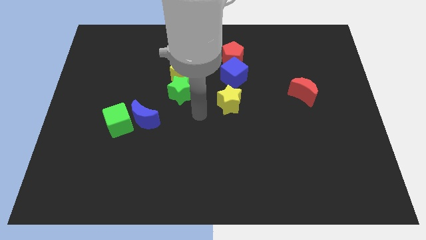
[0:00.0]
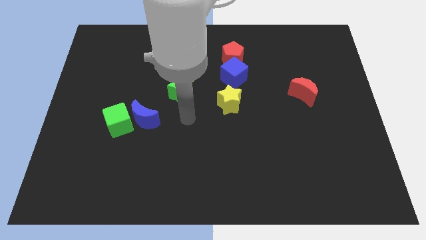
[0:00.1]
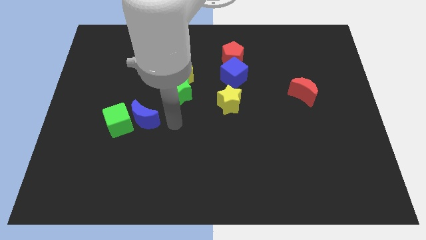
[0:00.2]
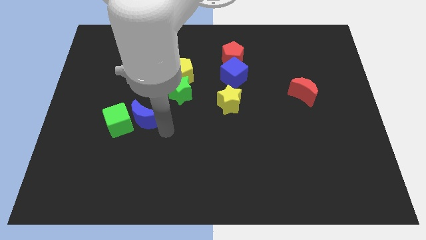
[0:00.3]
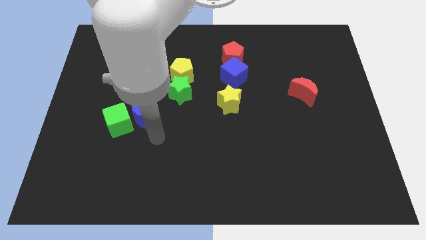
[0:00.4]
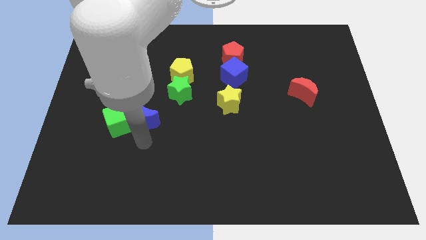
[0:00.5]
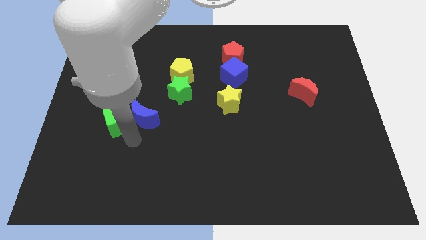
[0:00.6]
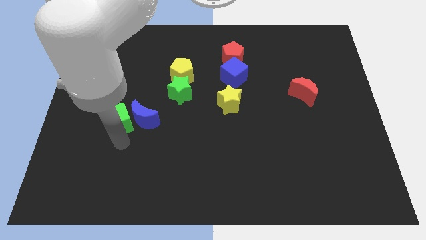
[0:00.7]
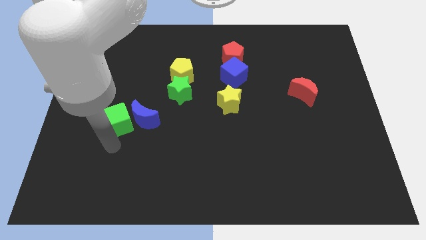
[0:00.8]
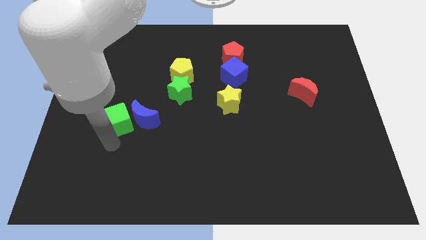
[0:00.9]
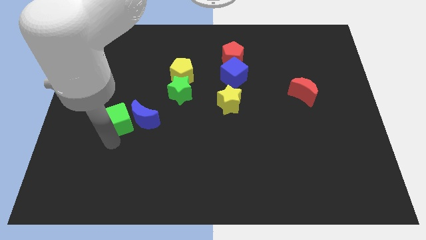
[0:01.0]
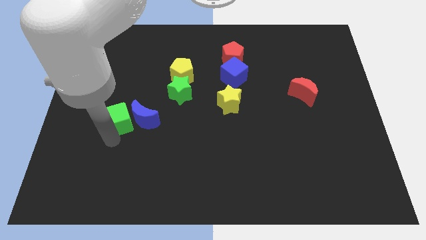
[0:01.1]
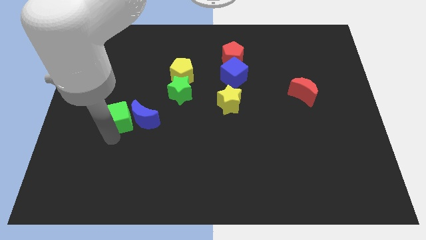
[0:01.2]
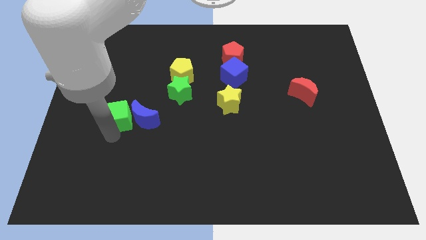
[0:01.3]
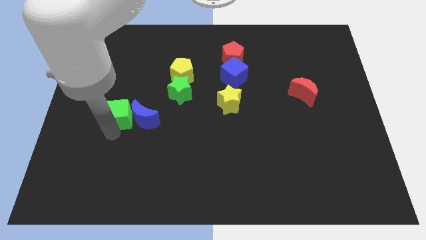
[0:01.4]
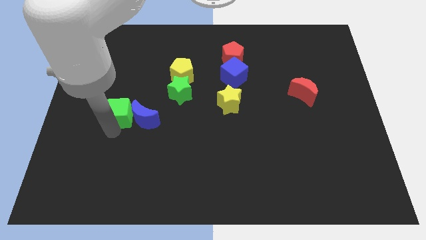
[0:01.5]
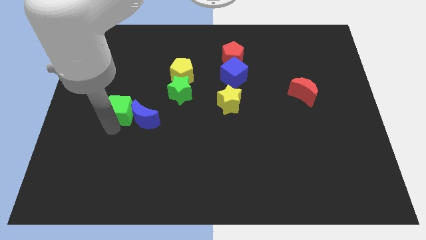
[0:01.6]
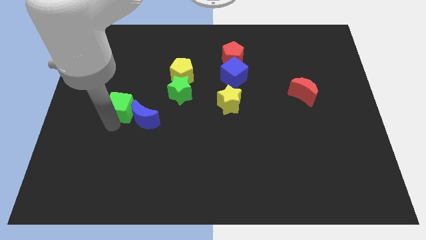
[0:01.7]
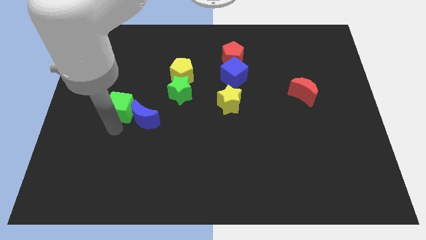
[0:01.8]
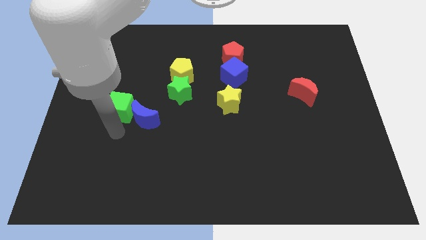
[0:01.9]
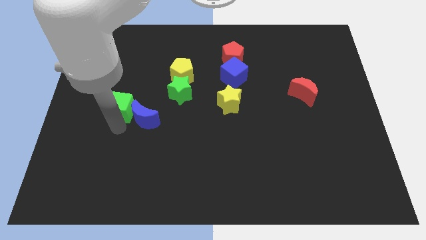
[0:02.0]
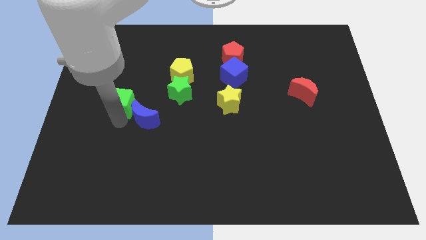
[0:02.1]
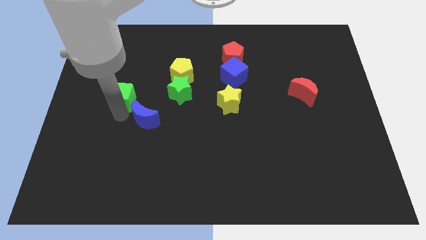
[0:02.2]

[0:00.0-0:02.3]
slide the green cube somewhat up

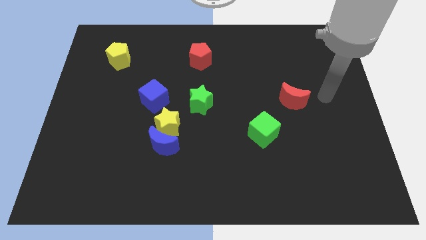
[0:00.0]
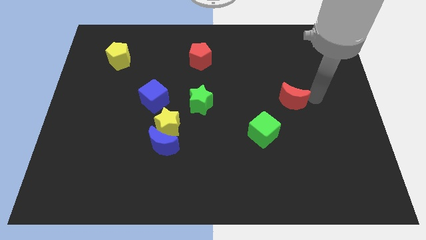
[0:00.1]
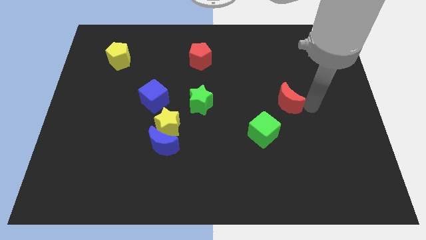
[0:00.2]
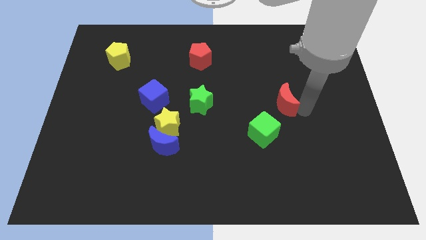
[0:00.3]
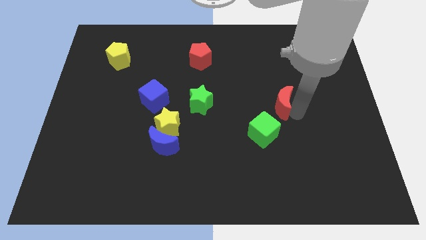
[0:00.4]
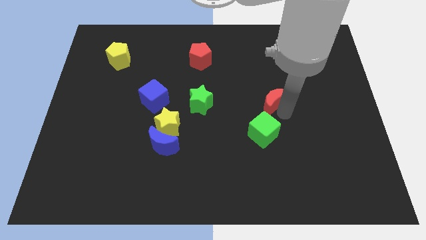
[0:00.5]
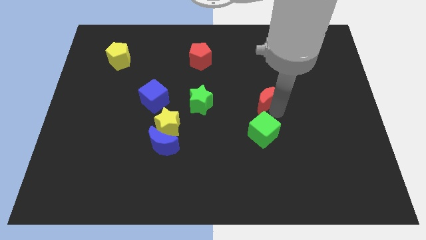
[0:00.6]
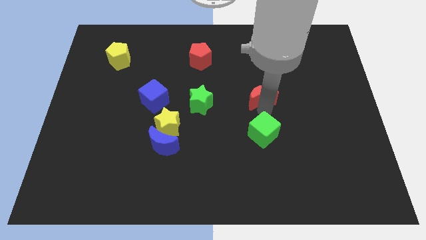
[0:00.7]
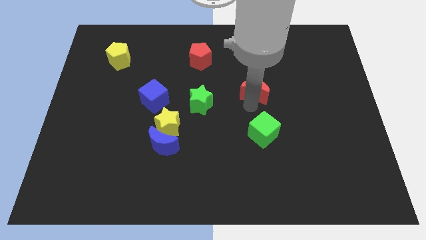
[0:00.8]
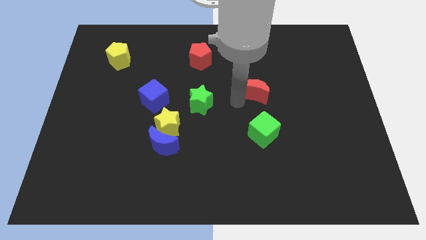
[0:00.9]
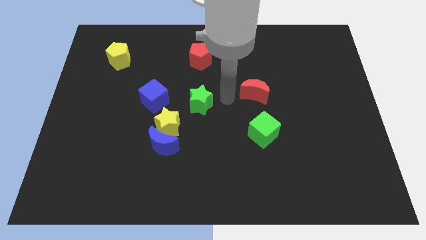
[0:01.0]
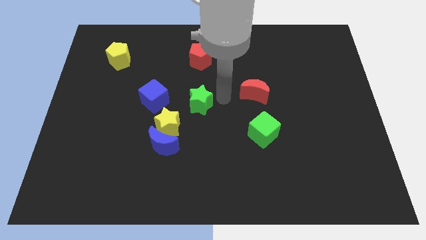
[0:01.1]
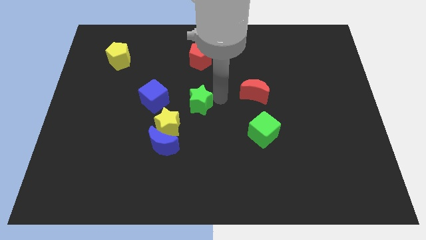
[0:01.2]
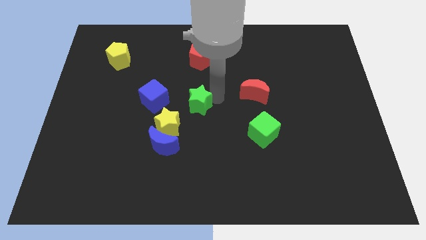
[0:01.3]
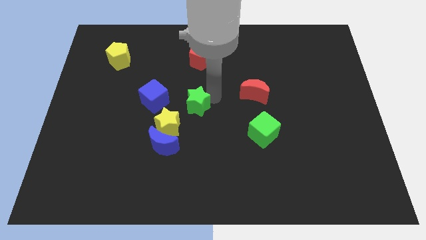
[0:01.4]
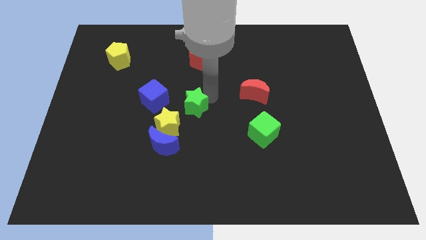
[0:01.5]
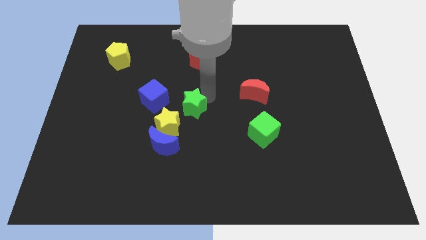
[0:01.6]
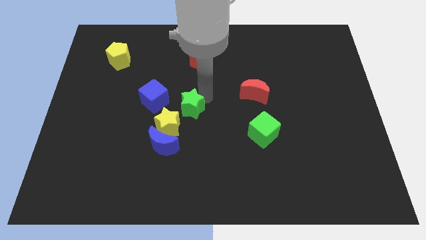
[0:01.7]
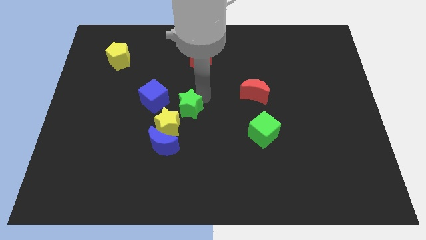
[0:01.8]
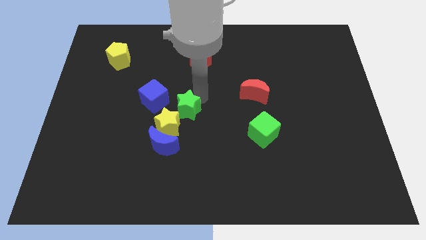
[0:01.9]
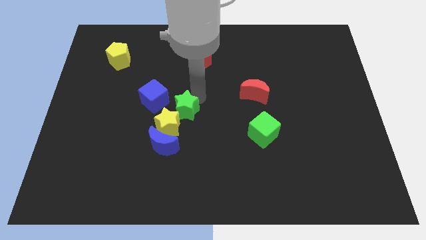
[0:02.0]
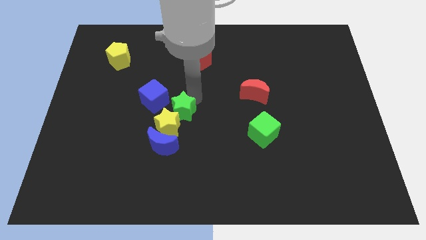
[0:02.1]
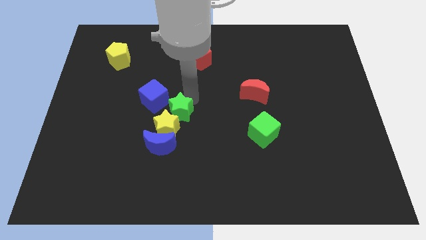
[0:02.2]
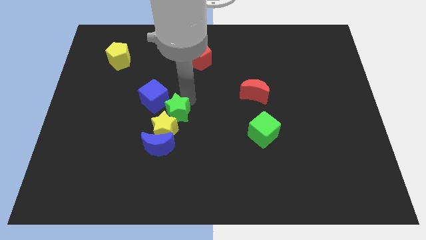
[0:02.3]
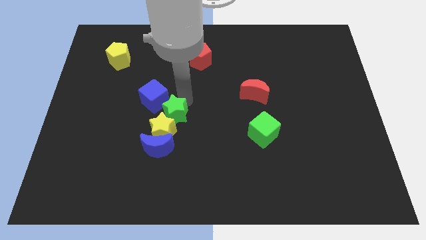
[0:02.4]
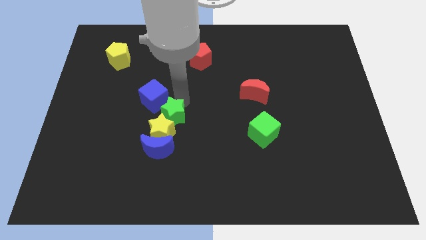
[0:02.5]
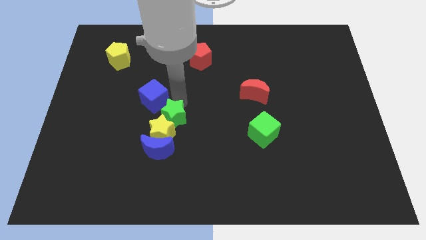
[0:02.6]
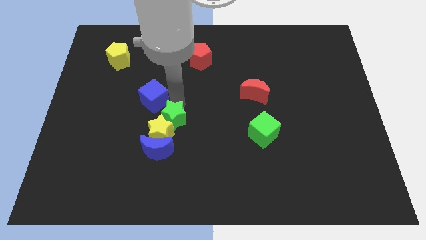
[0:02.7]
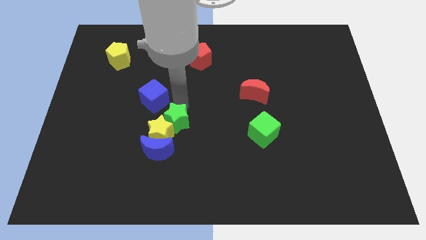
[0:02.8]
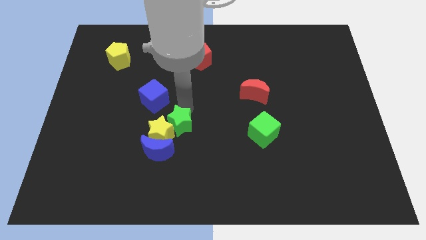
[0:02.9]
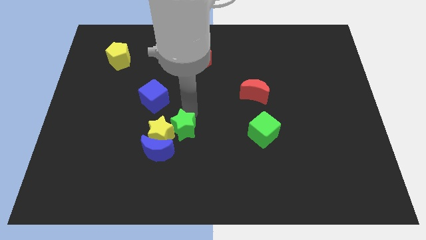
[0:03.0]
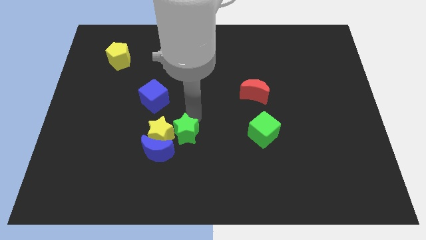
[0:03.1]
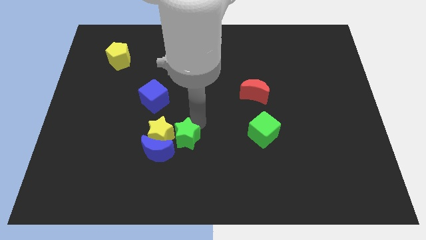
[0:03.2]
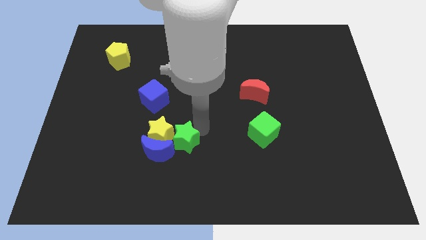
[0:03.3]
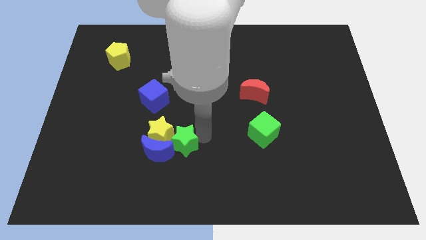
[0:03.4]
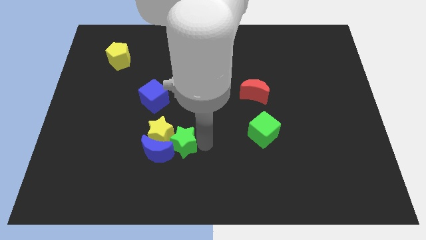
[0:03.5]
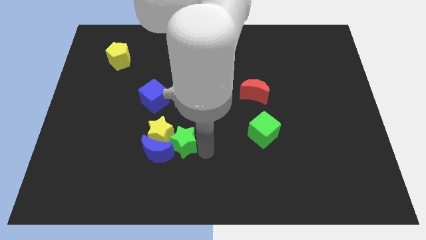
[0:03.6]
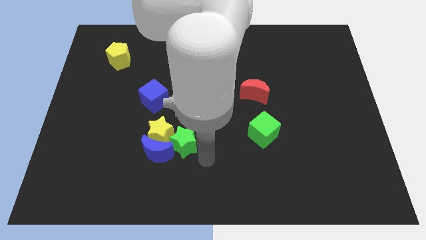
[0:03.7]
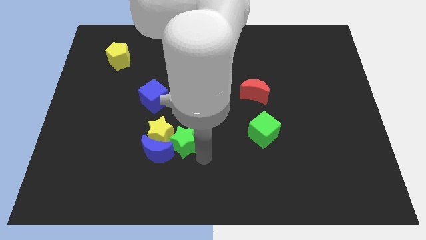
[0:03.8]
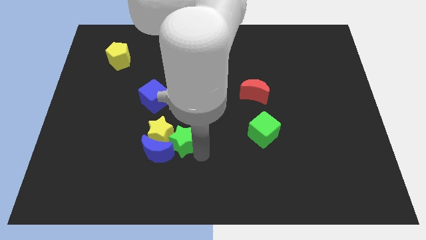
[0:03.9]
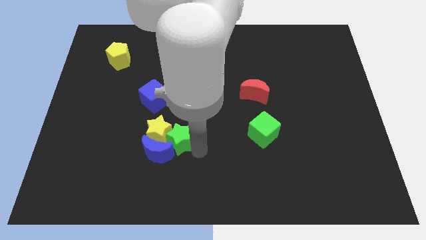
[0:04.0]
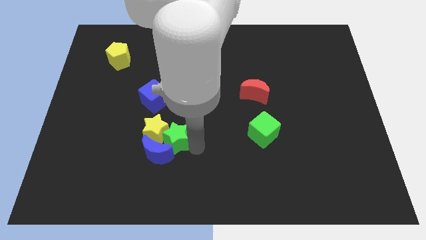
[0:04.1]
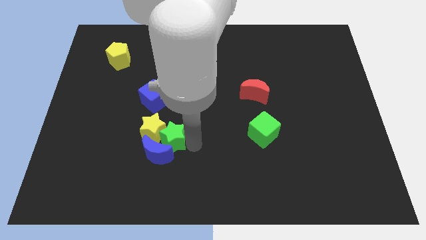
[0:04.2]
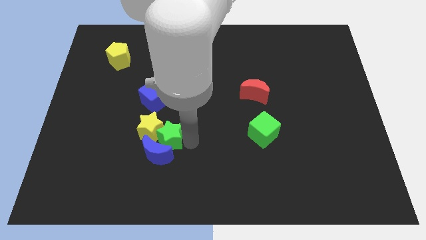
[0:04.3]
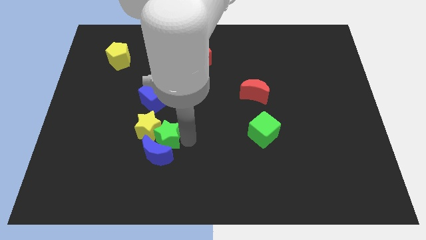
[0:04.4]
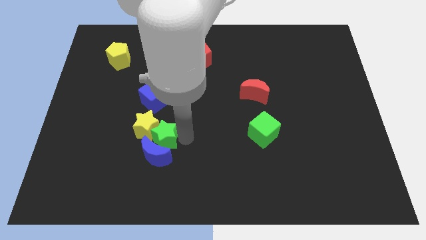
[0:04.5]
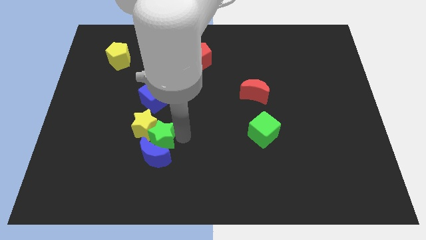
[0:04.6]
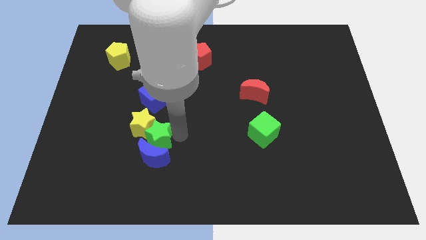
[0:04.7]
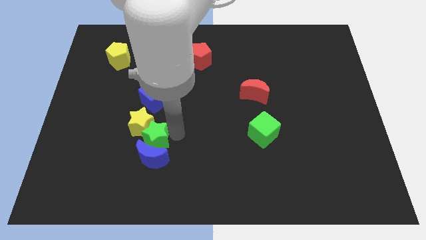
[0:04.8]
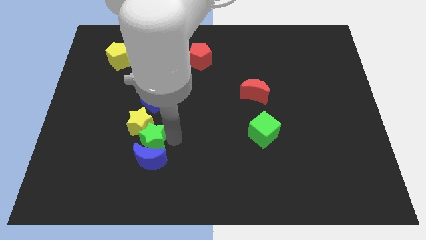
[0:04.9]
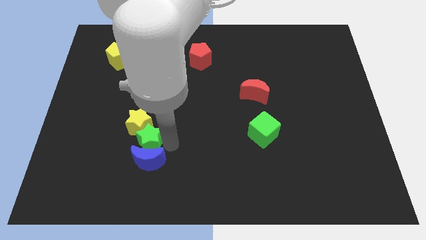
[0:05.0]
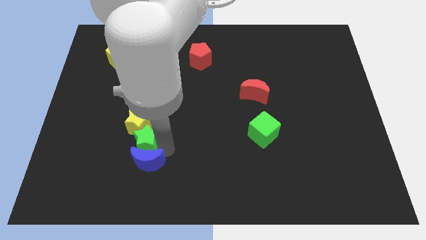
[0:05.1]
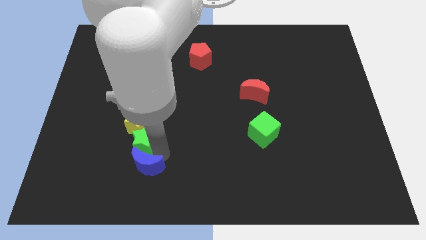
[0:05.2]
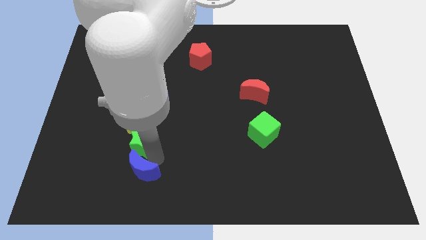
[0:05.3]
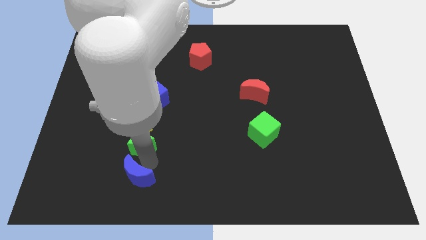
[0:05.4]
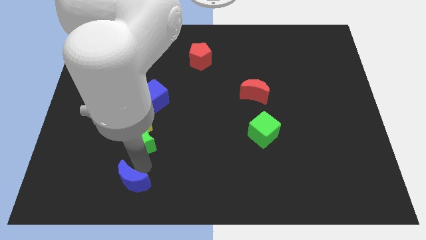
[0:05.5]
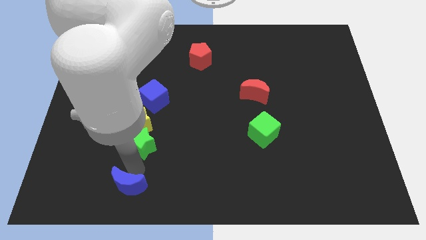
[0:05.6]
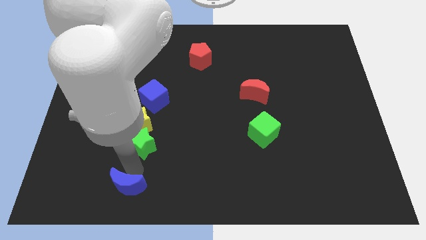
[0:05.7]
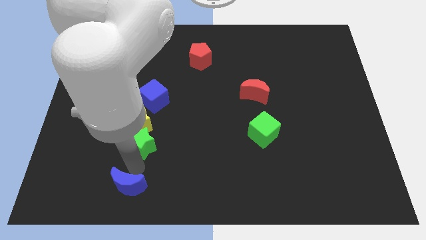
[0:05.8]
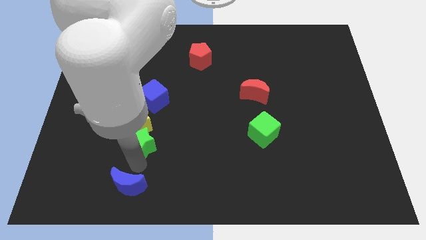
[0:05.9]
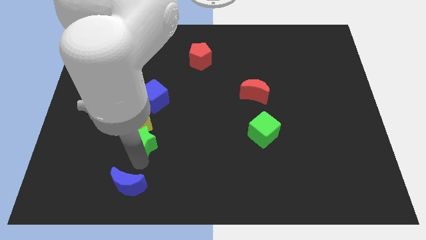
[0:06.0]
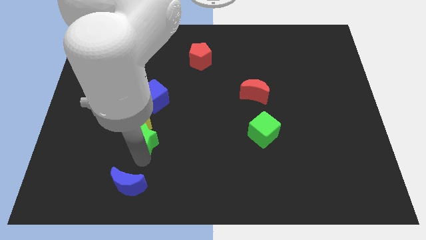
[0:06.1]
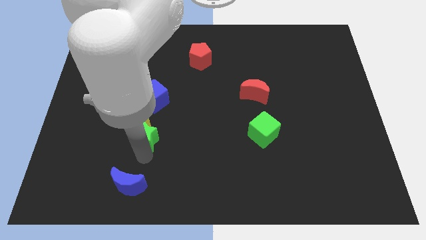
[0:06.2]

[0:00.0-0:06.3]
move the green star a bit left
